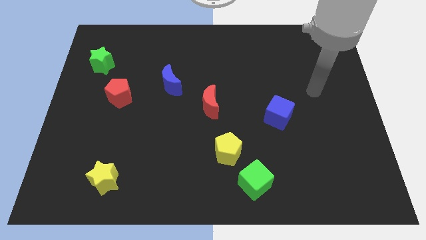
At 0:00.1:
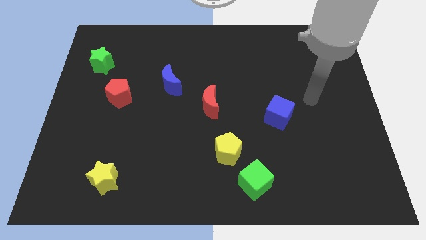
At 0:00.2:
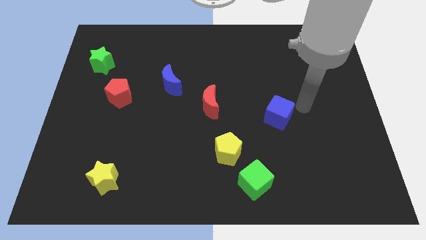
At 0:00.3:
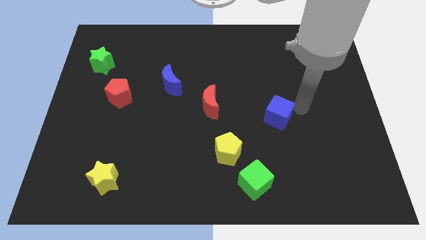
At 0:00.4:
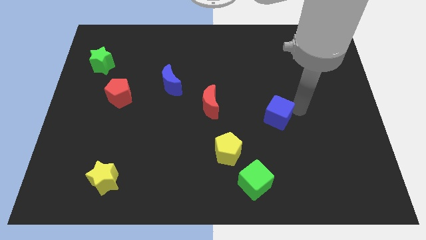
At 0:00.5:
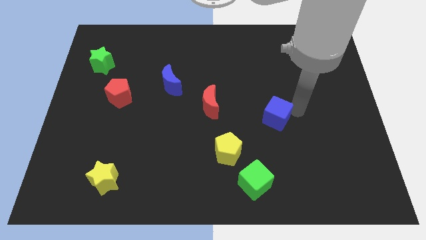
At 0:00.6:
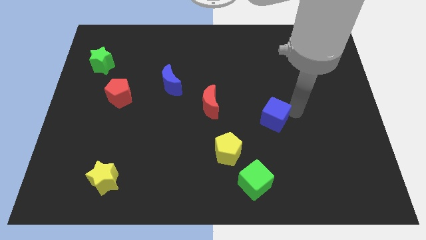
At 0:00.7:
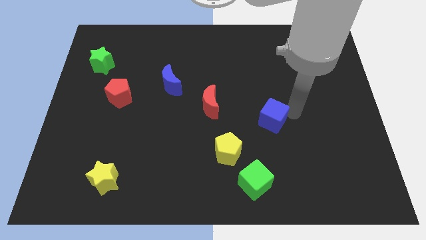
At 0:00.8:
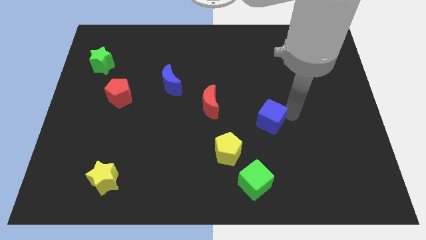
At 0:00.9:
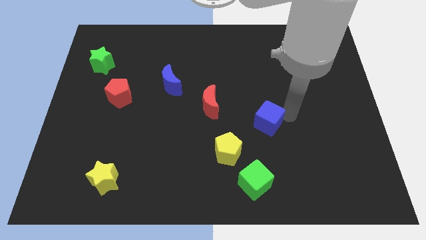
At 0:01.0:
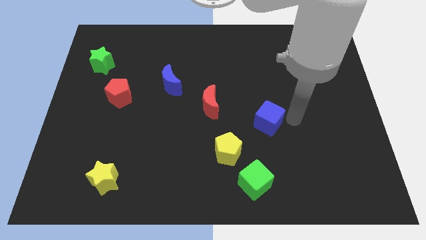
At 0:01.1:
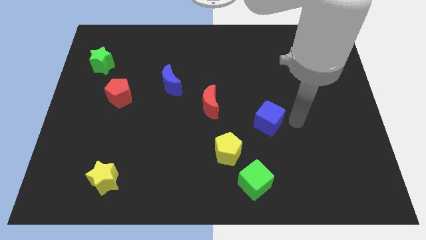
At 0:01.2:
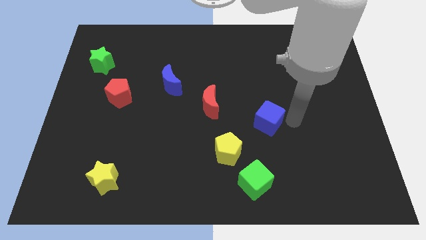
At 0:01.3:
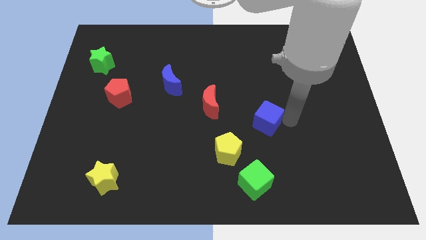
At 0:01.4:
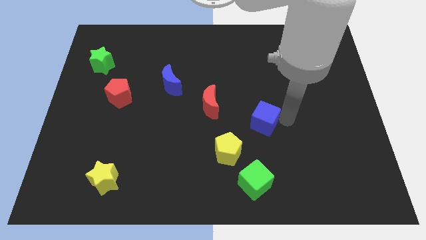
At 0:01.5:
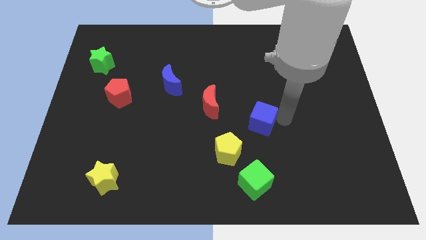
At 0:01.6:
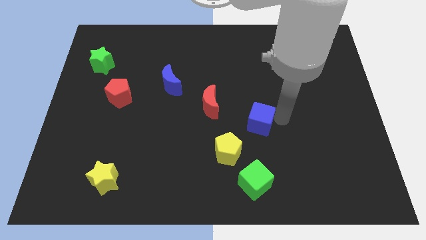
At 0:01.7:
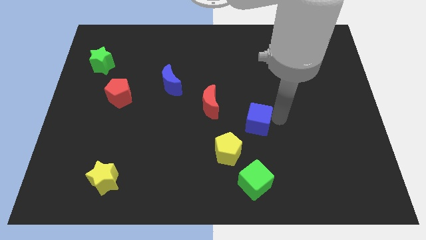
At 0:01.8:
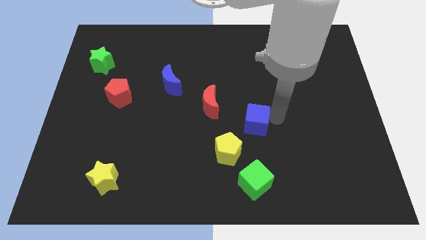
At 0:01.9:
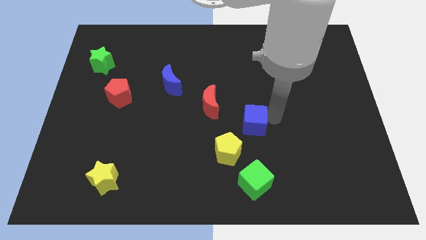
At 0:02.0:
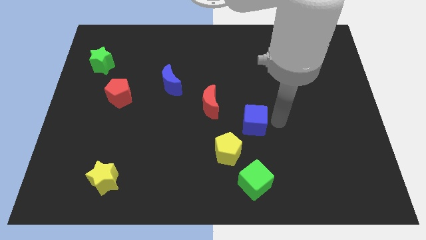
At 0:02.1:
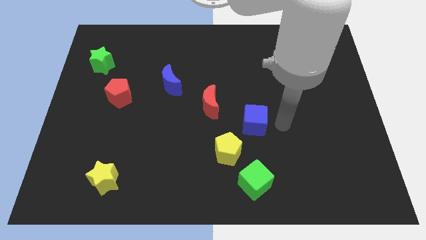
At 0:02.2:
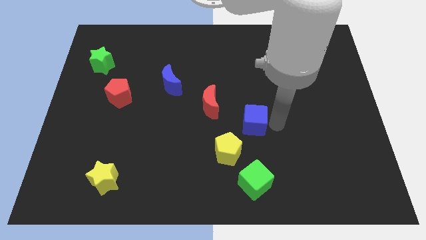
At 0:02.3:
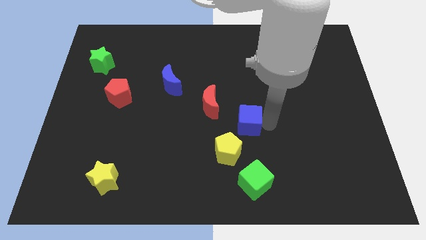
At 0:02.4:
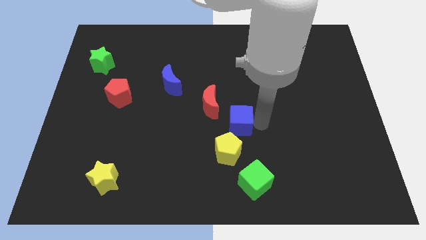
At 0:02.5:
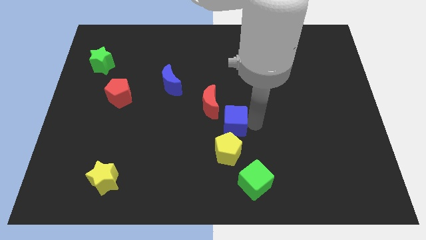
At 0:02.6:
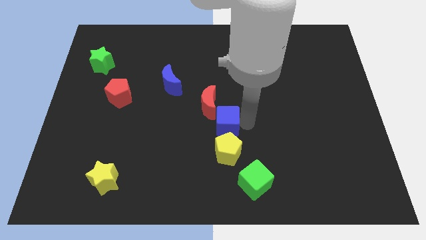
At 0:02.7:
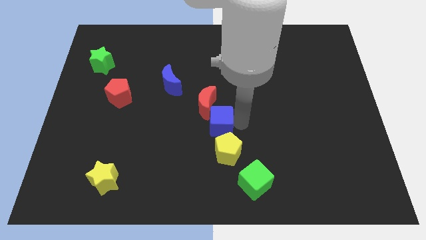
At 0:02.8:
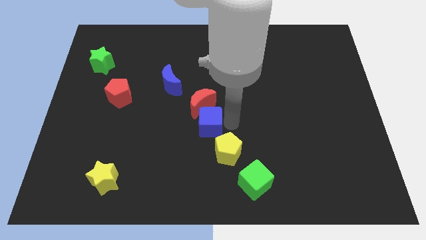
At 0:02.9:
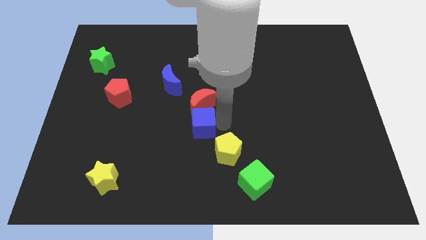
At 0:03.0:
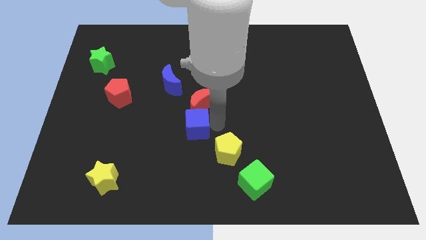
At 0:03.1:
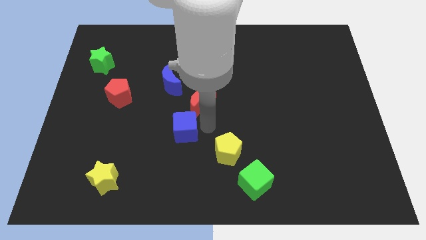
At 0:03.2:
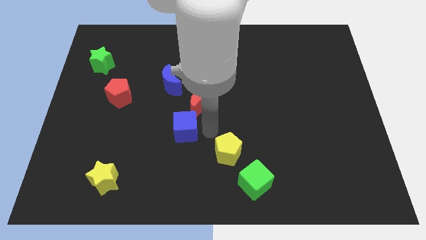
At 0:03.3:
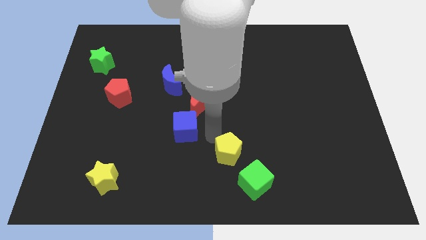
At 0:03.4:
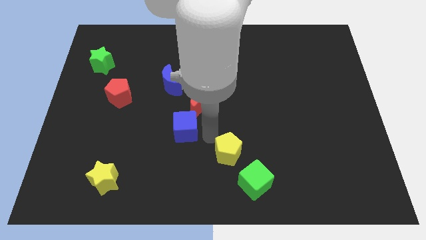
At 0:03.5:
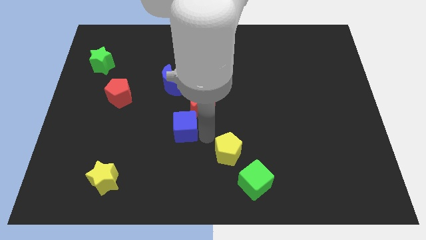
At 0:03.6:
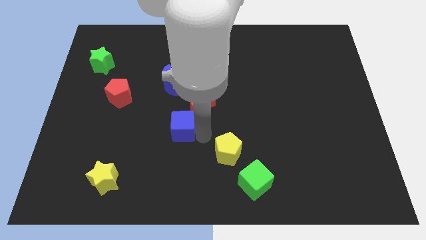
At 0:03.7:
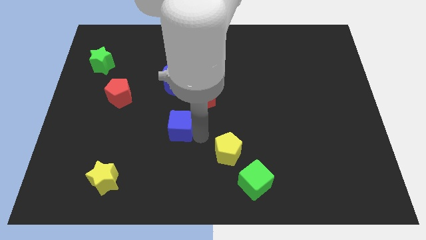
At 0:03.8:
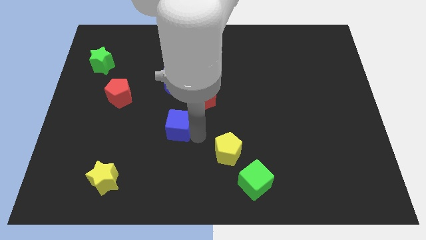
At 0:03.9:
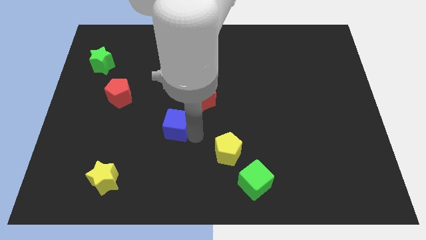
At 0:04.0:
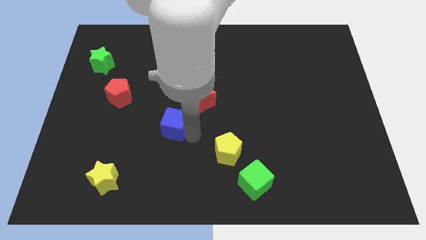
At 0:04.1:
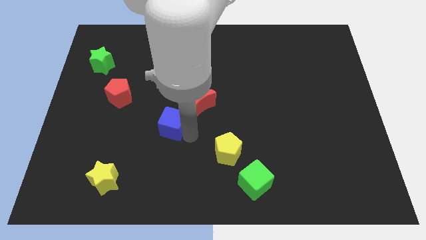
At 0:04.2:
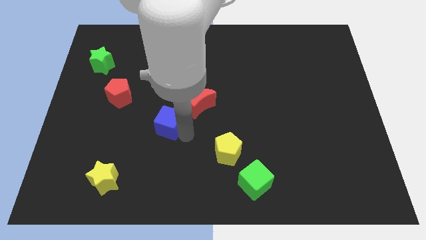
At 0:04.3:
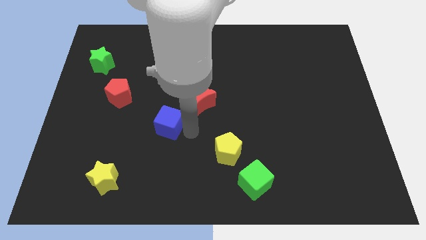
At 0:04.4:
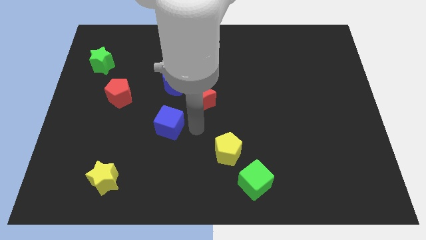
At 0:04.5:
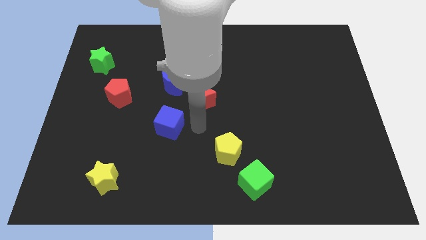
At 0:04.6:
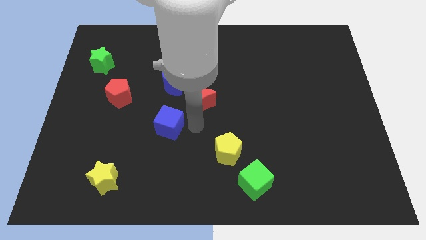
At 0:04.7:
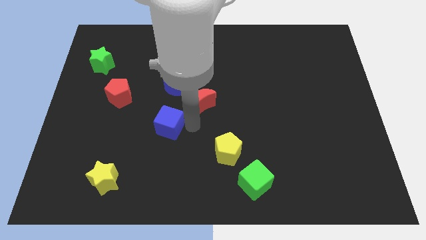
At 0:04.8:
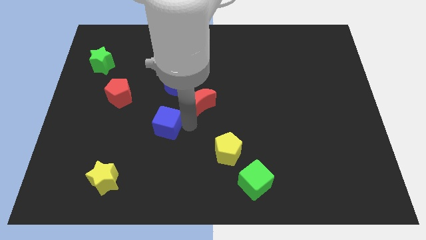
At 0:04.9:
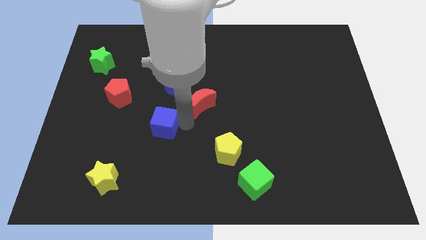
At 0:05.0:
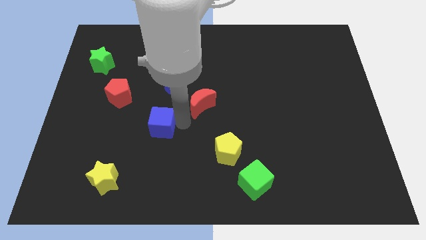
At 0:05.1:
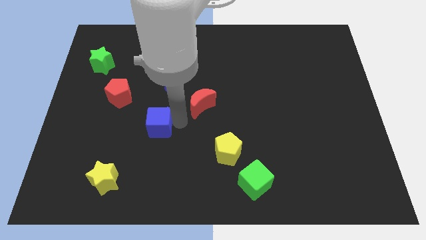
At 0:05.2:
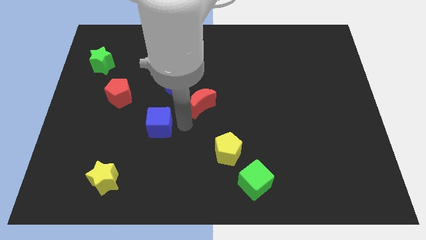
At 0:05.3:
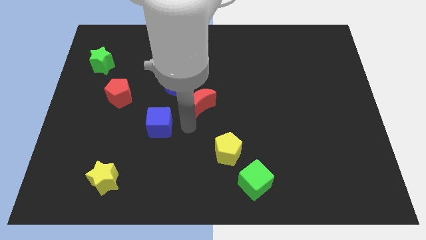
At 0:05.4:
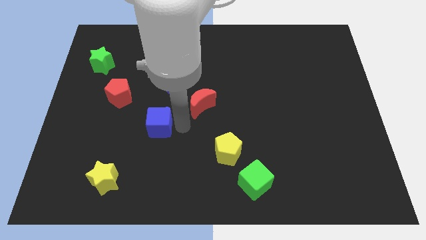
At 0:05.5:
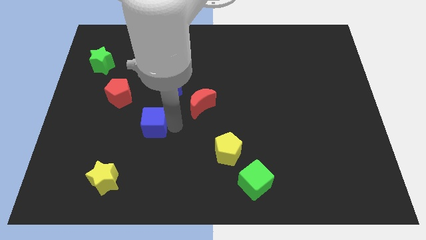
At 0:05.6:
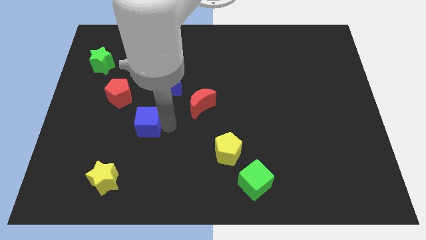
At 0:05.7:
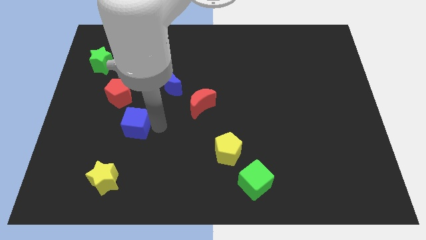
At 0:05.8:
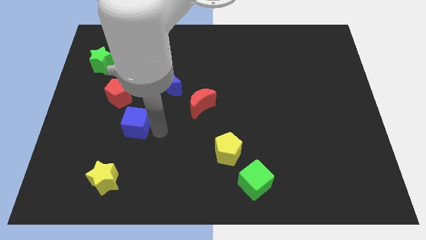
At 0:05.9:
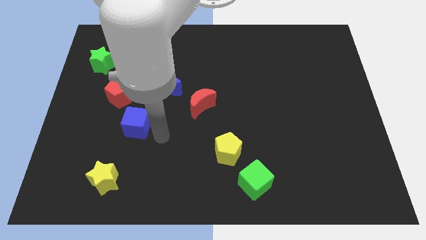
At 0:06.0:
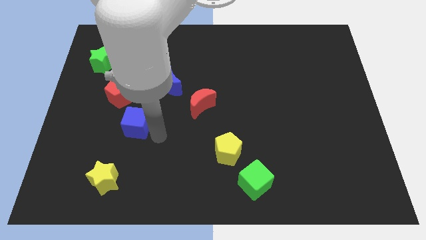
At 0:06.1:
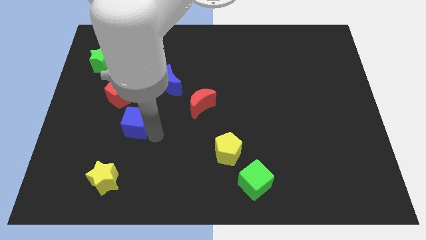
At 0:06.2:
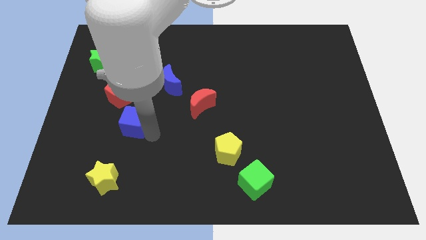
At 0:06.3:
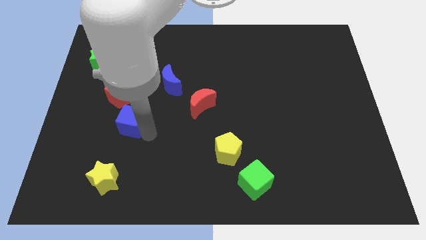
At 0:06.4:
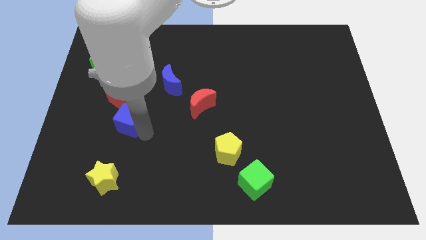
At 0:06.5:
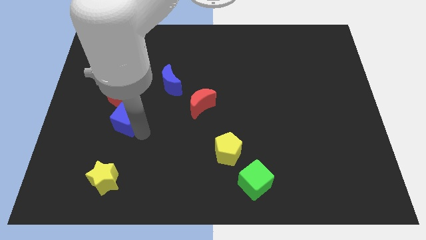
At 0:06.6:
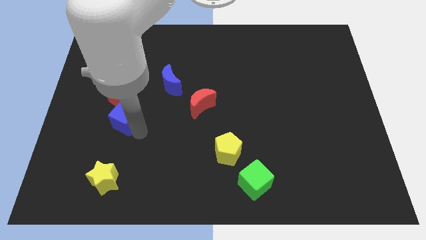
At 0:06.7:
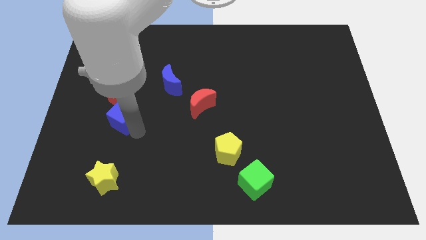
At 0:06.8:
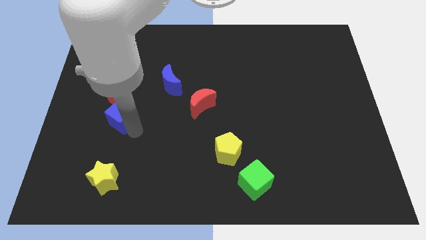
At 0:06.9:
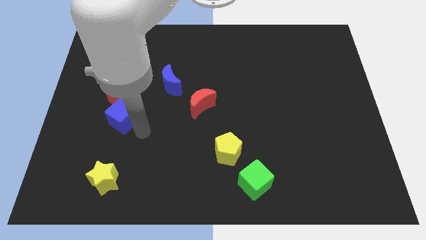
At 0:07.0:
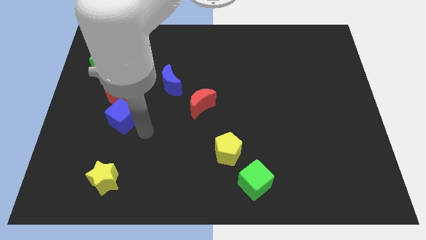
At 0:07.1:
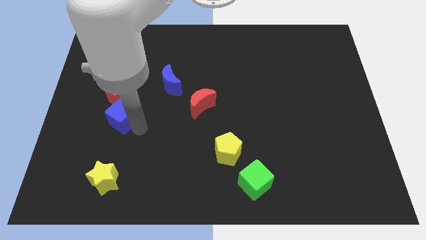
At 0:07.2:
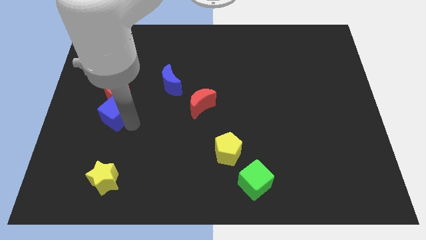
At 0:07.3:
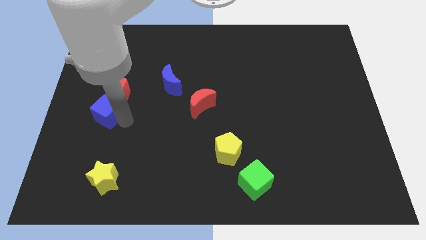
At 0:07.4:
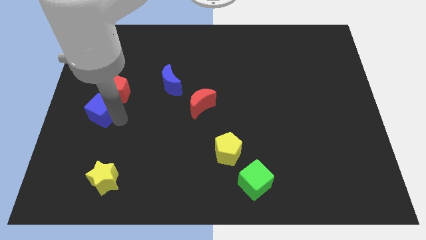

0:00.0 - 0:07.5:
slide the blue cube to the left side of the board
